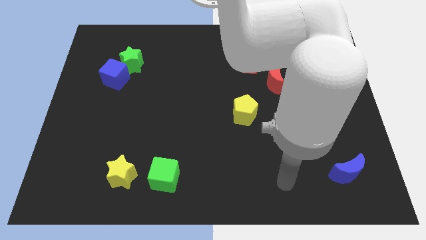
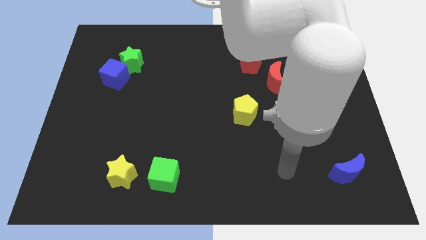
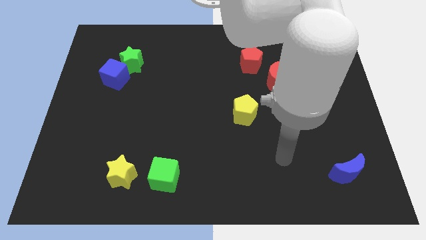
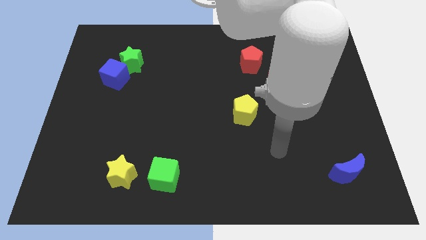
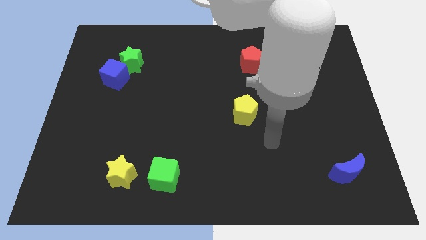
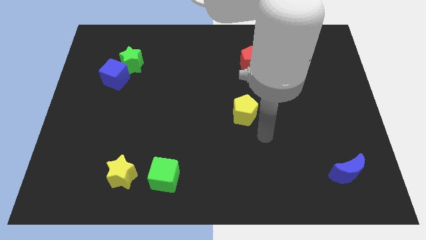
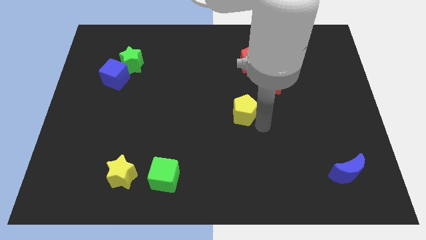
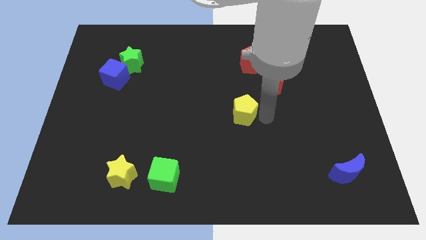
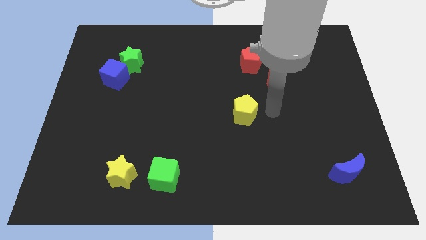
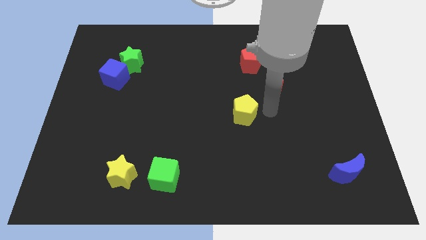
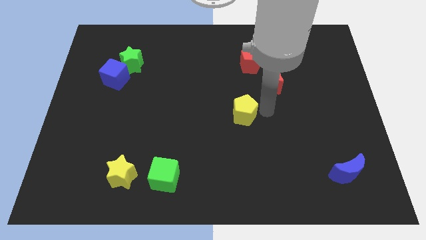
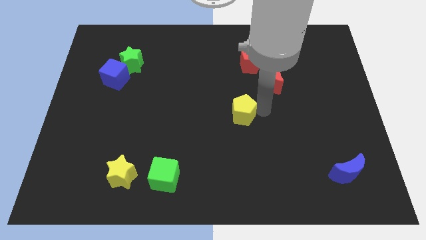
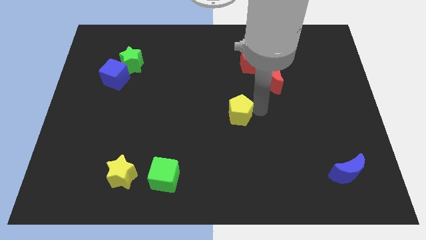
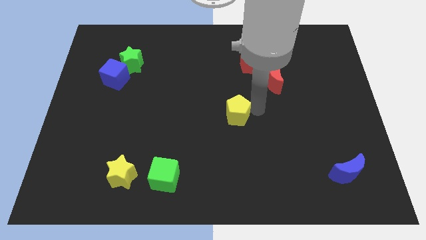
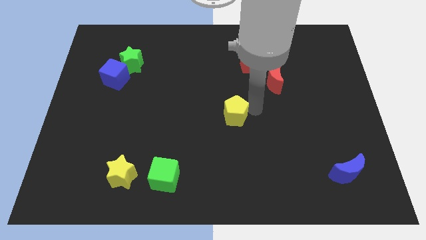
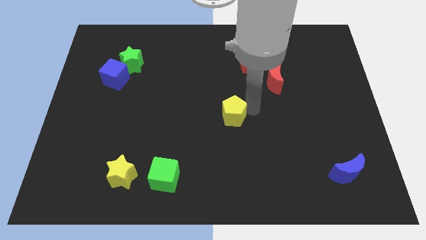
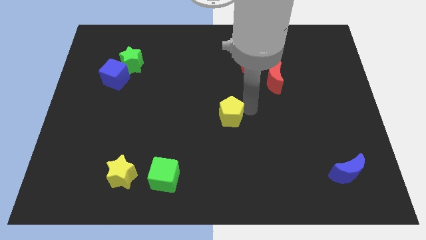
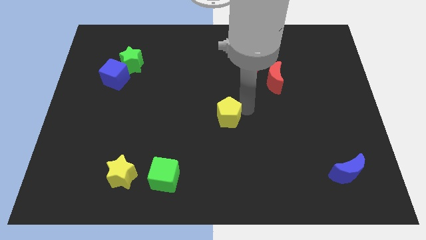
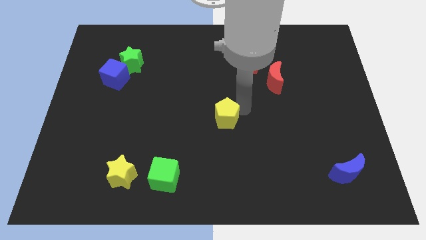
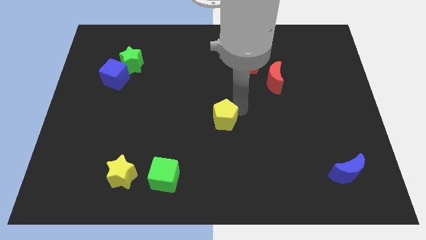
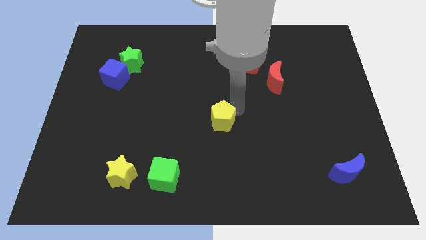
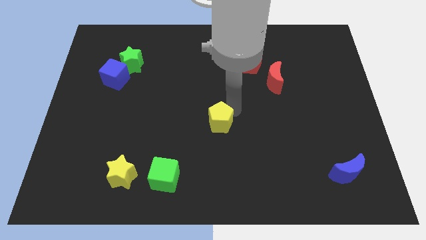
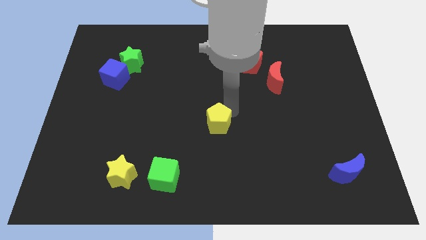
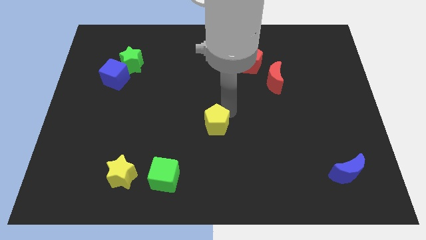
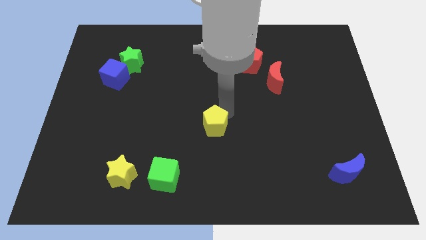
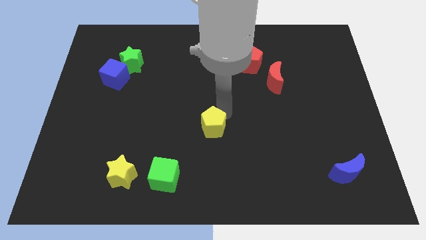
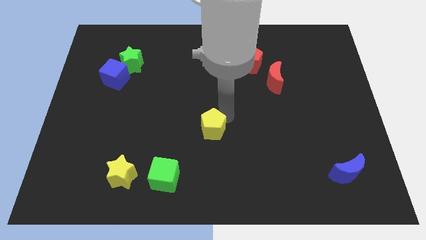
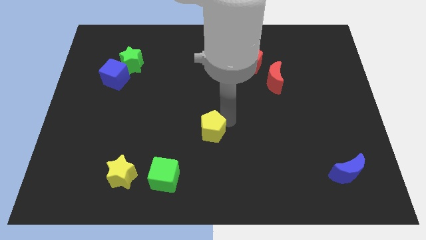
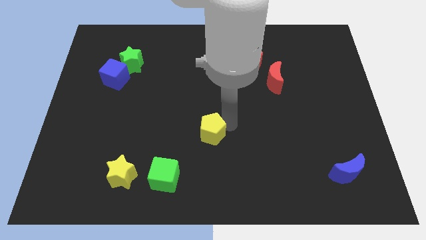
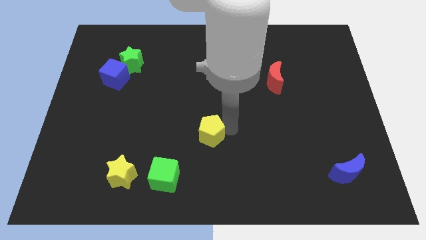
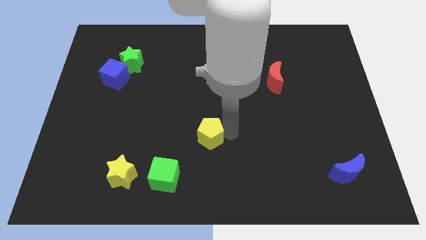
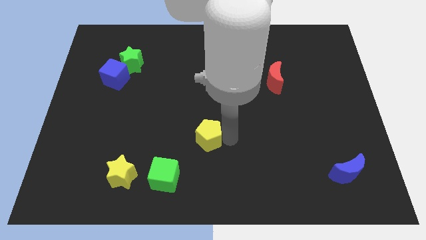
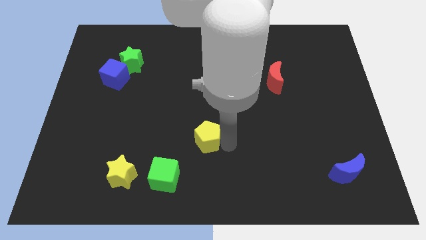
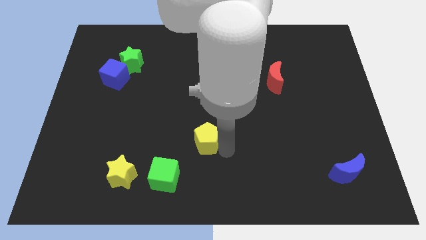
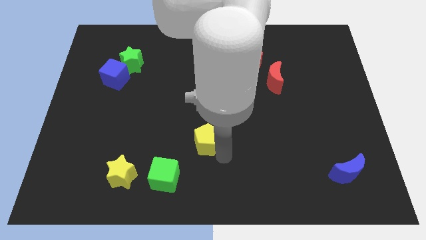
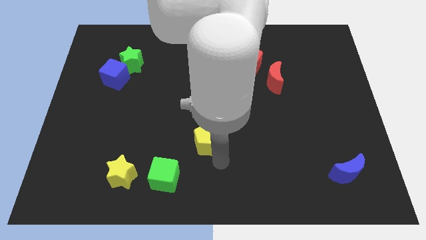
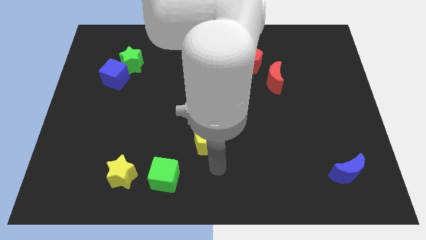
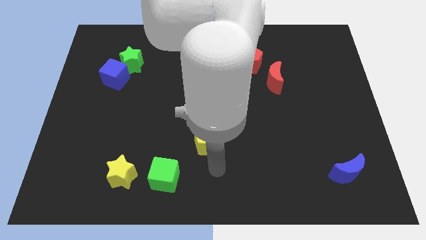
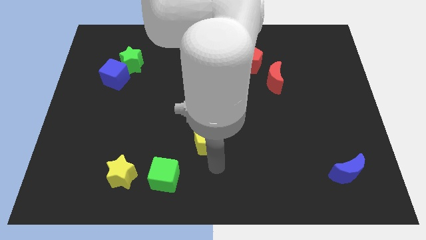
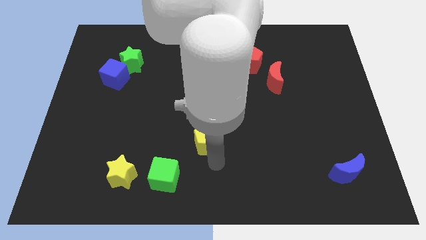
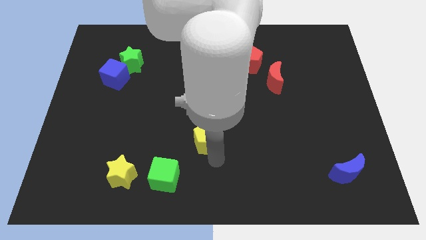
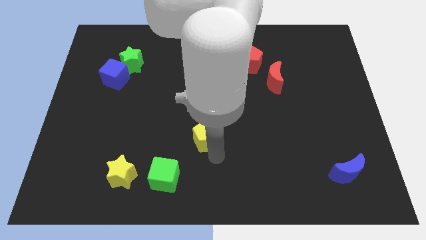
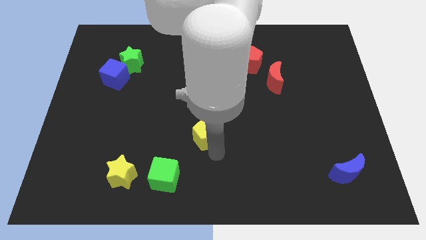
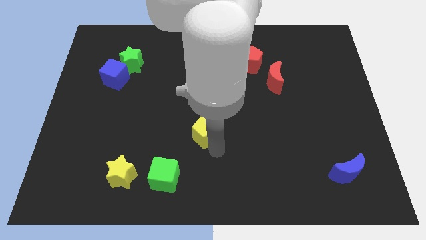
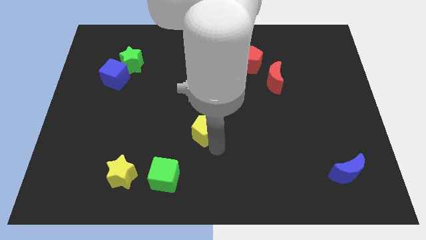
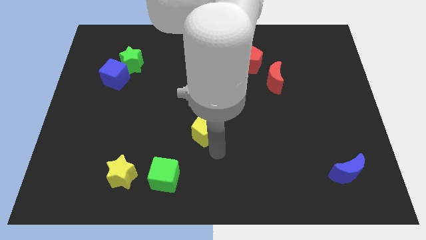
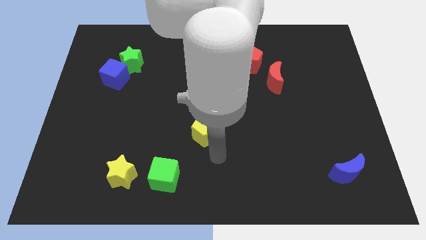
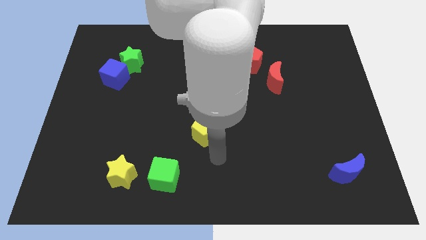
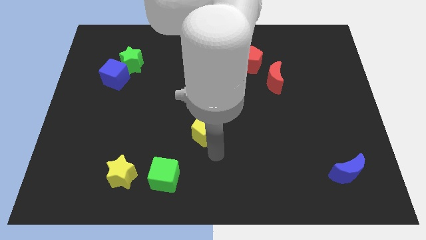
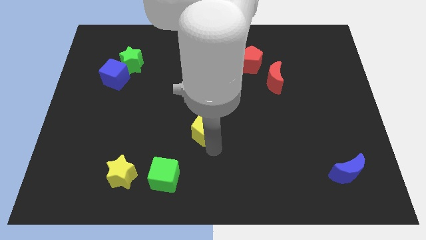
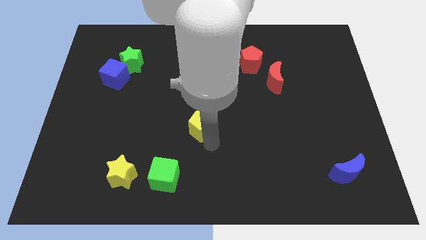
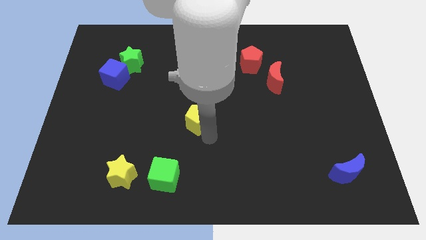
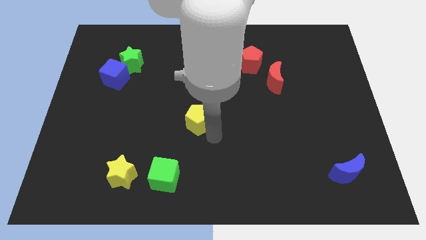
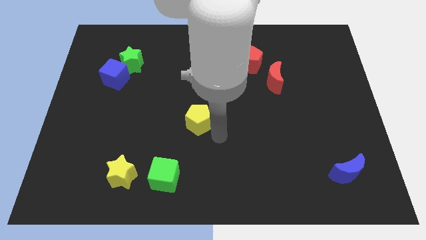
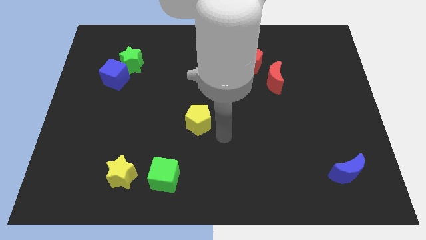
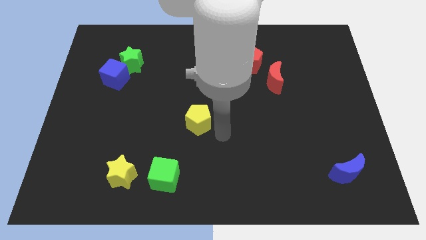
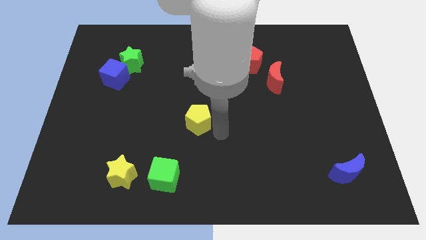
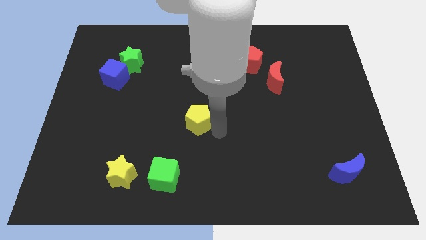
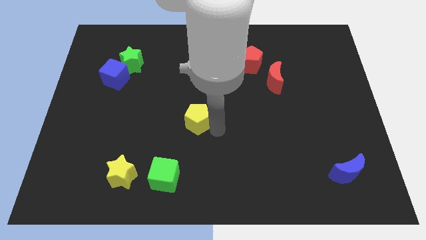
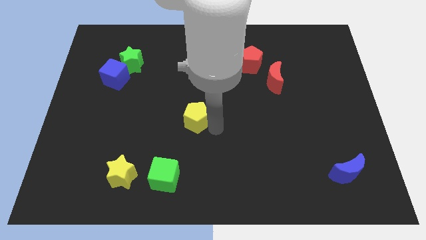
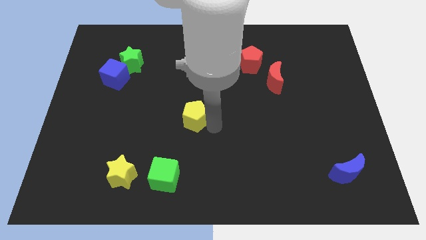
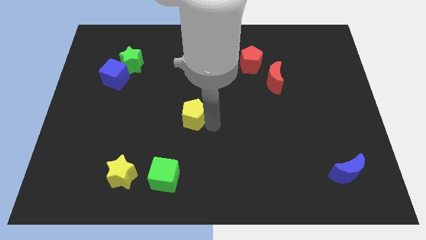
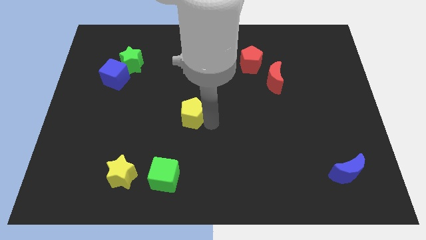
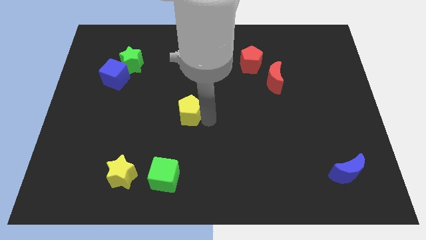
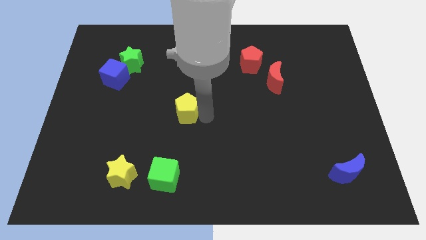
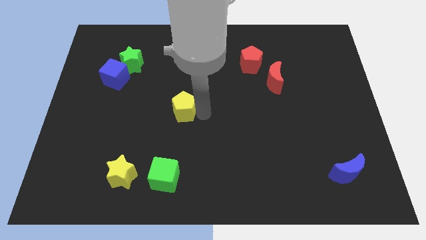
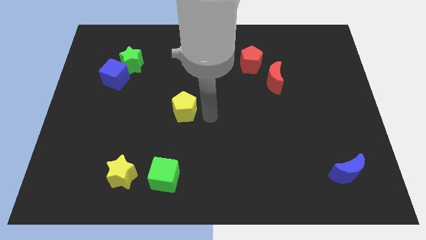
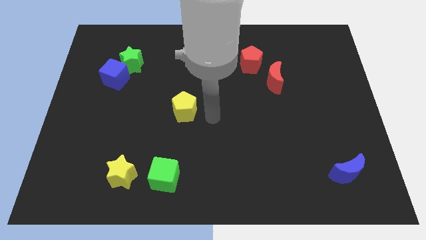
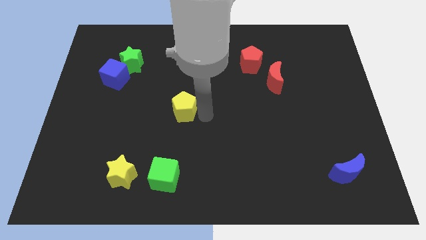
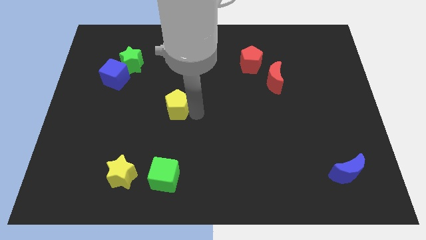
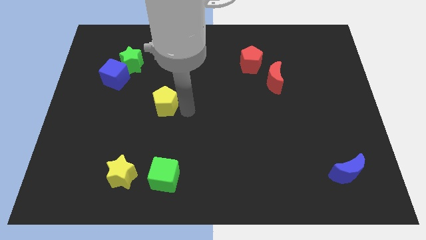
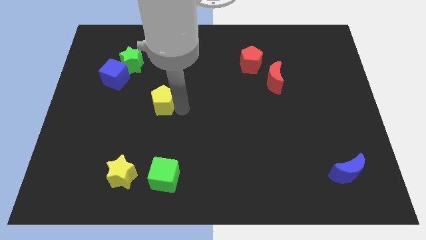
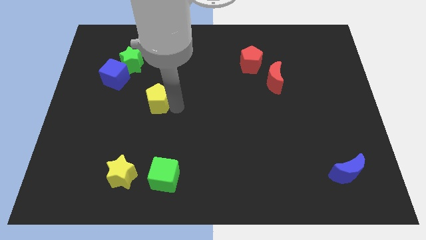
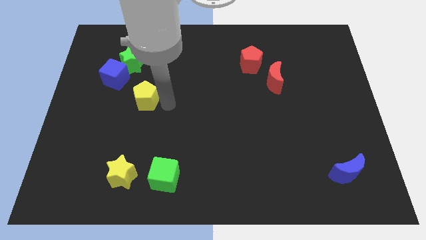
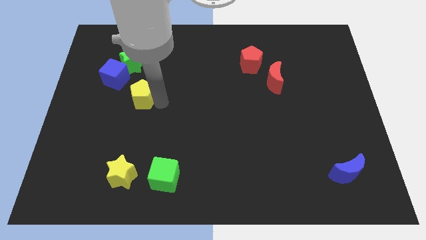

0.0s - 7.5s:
slide the yellow pentagon to the bottom of the green star
